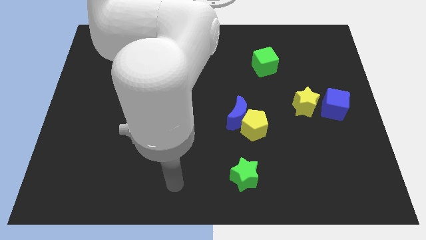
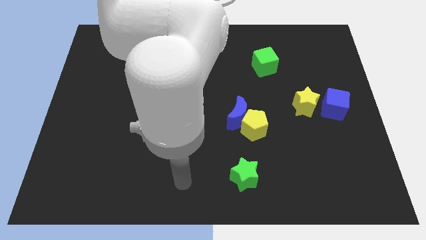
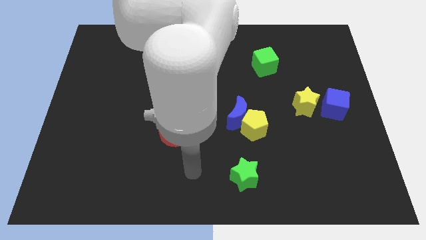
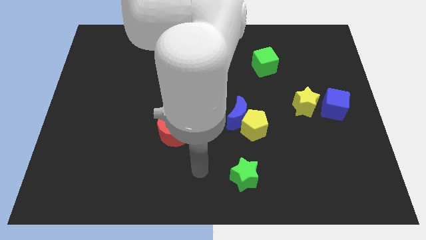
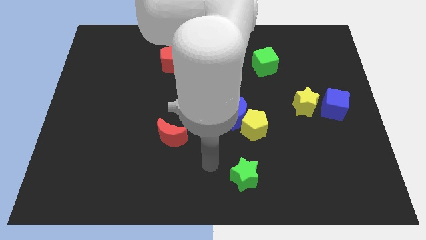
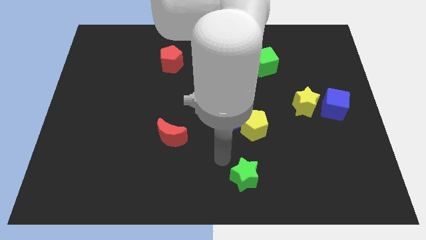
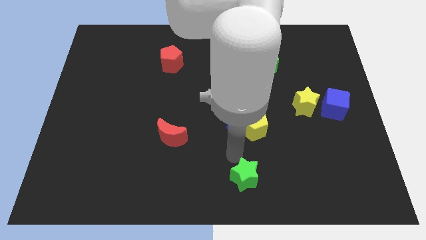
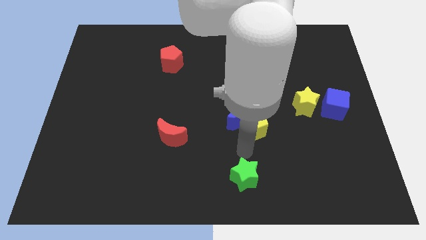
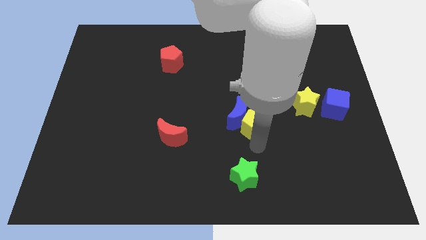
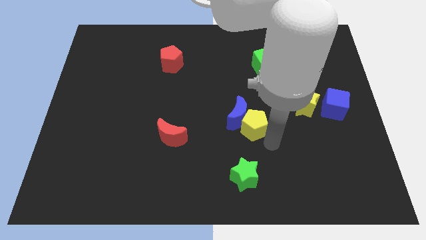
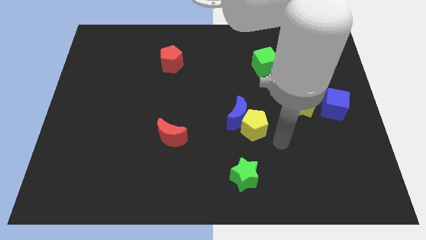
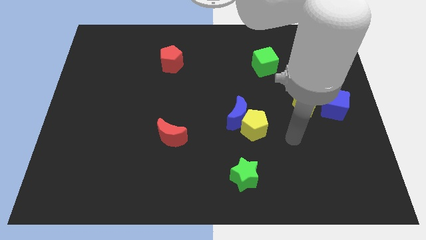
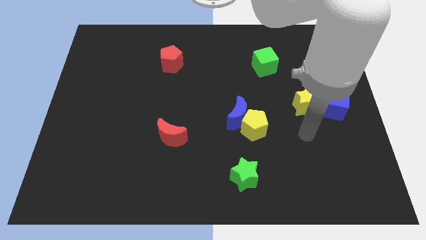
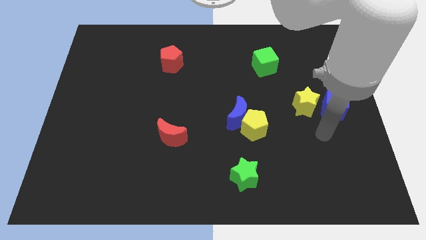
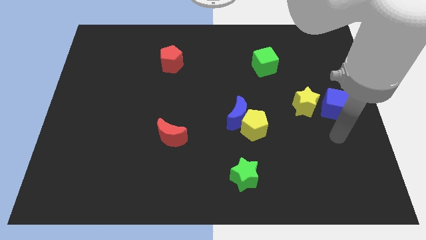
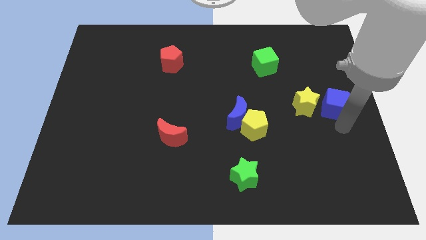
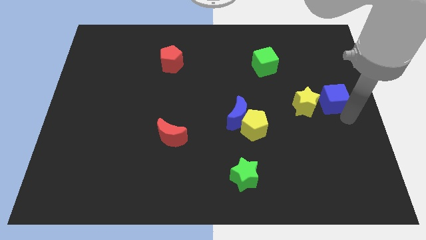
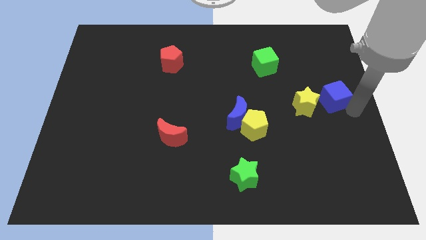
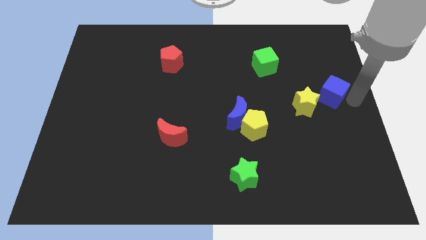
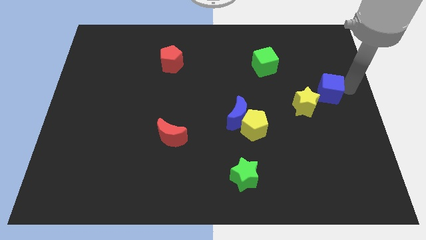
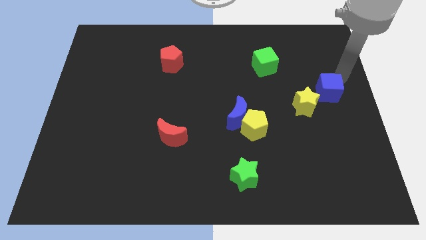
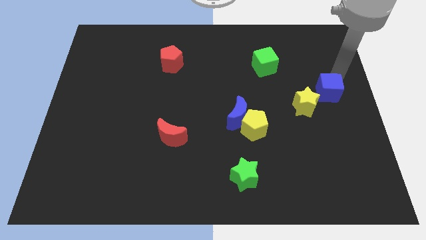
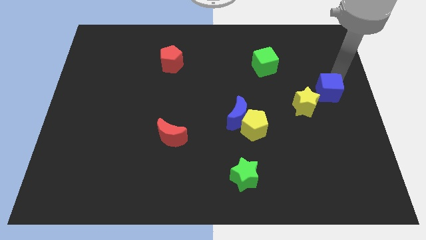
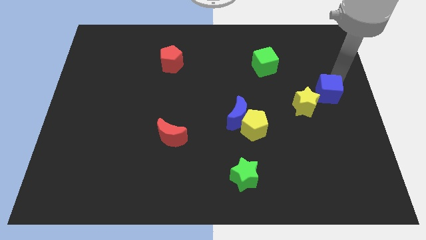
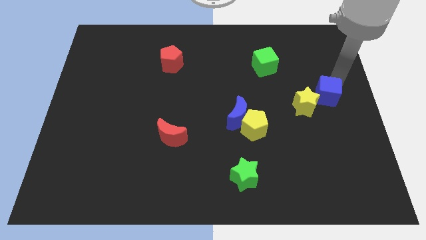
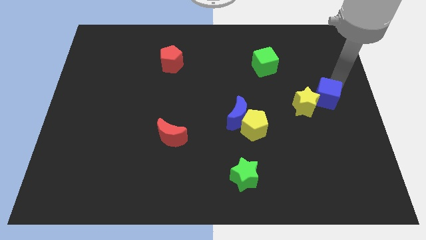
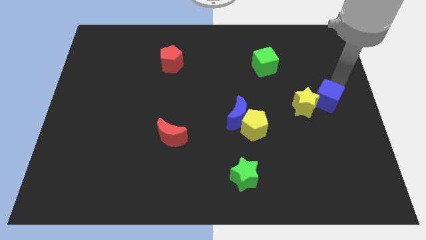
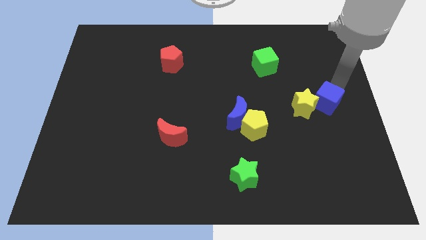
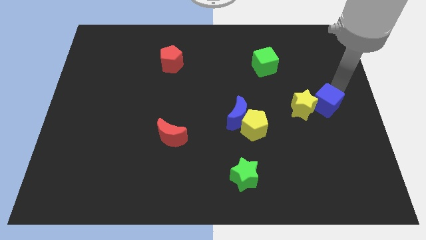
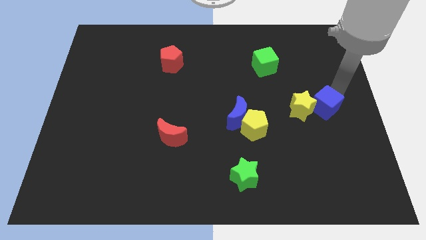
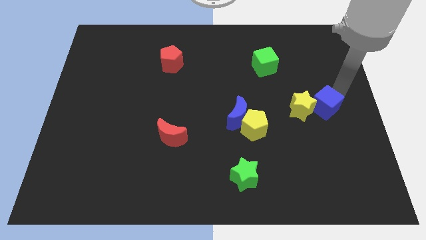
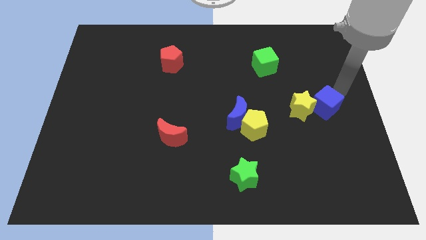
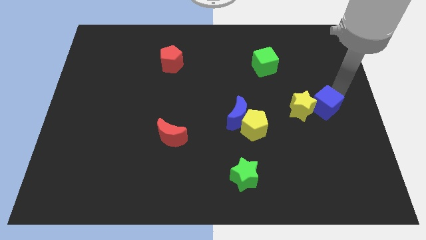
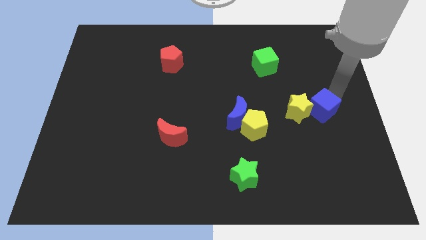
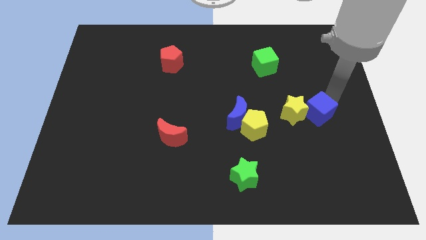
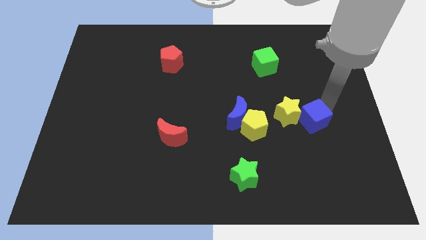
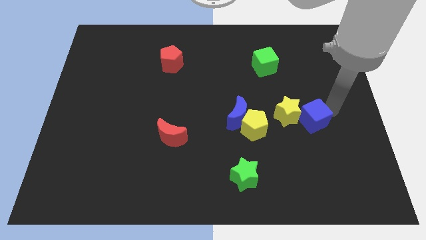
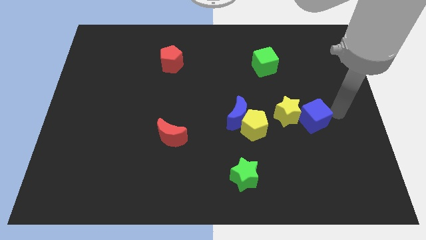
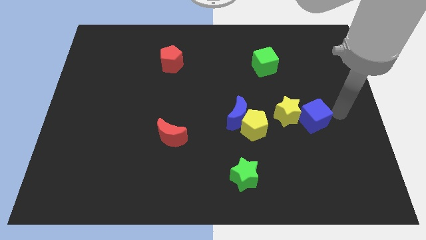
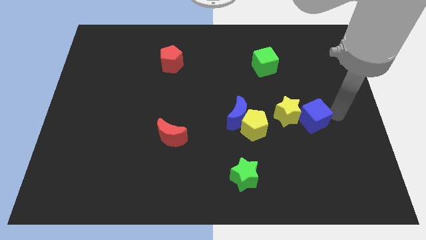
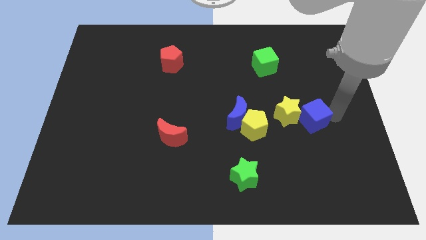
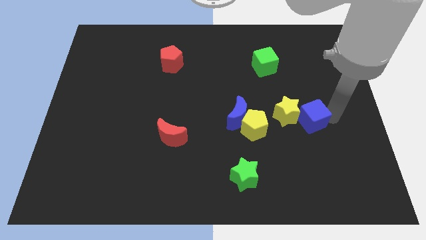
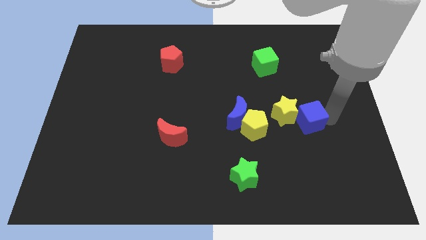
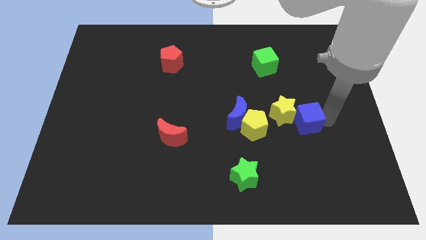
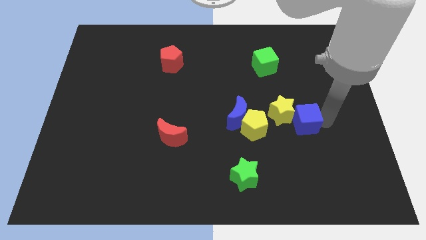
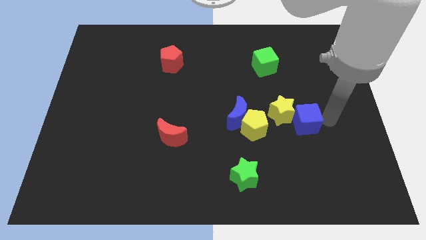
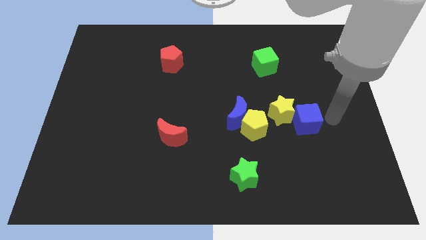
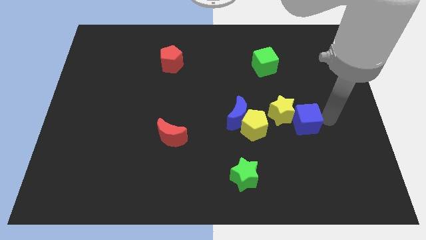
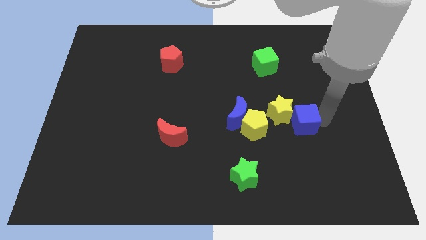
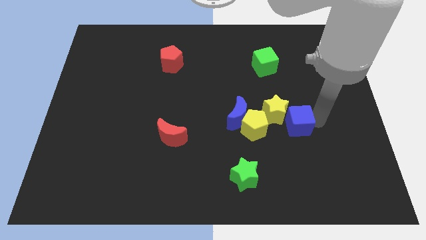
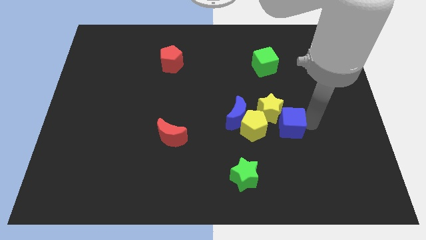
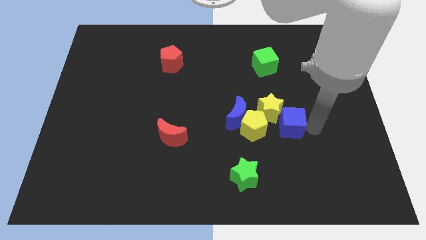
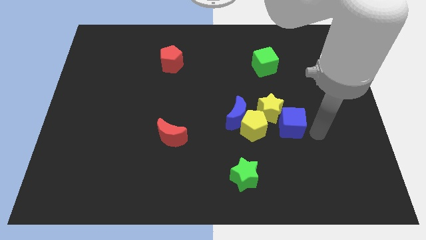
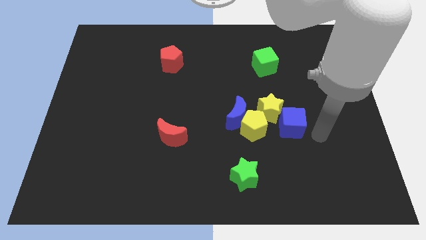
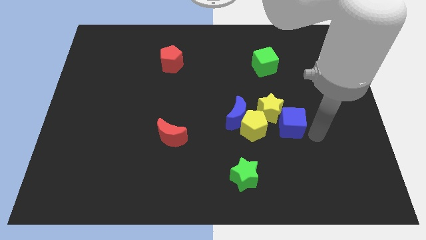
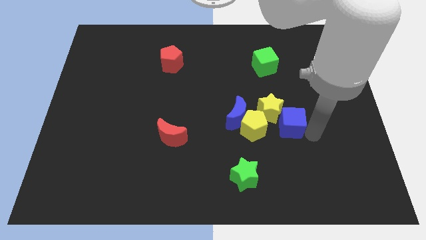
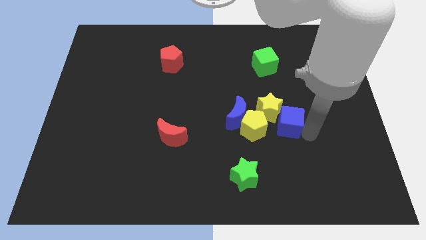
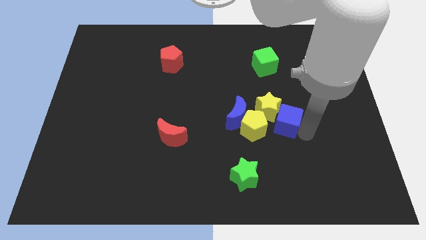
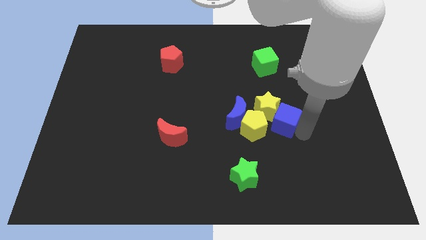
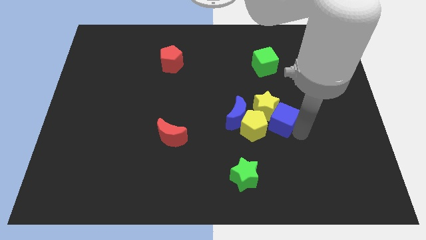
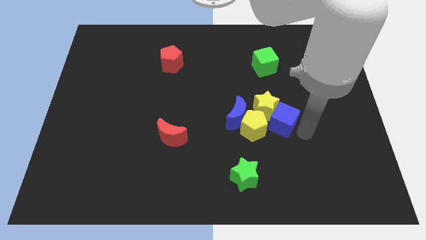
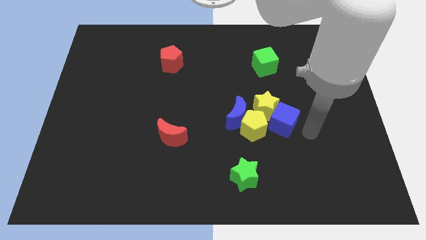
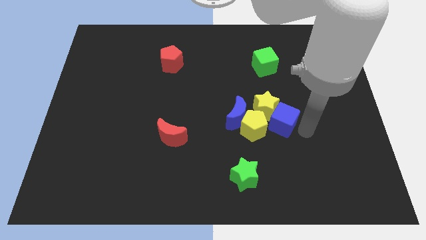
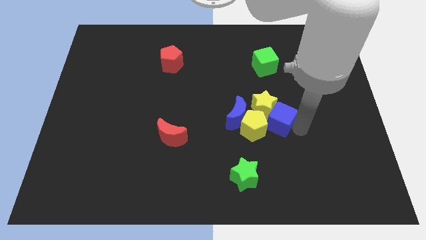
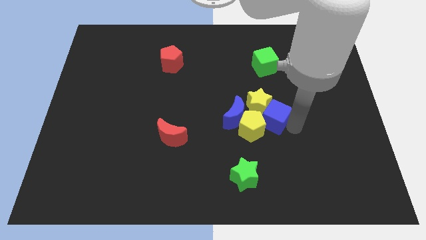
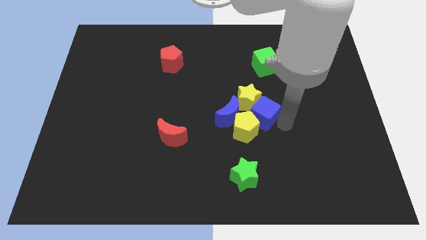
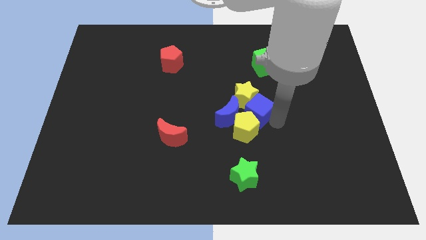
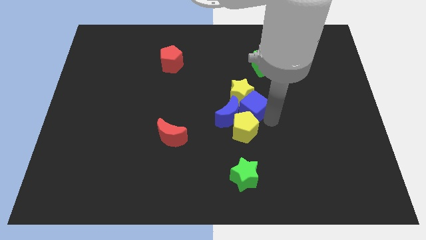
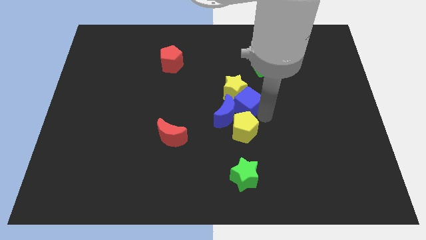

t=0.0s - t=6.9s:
slide the blue cube to the left

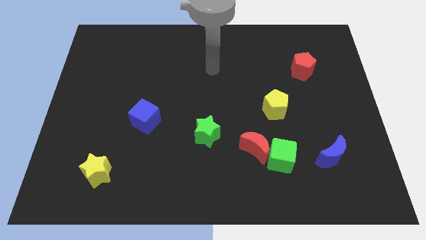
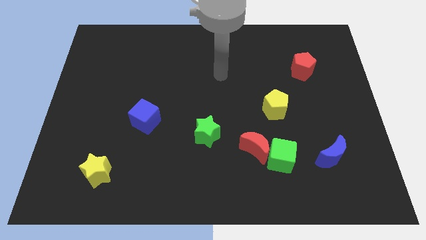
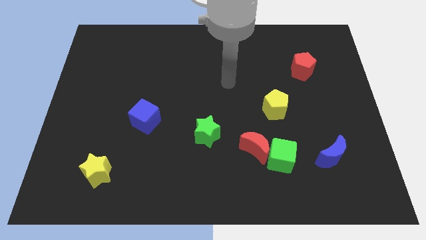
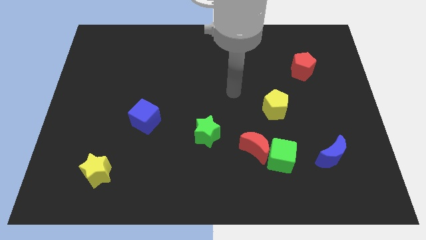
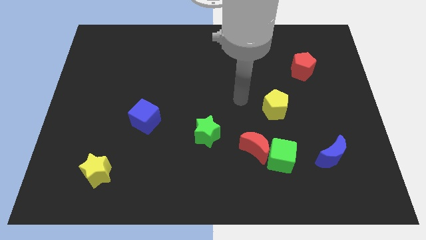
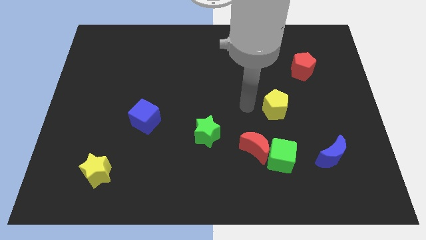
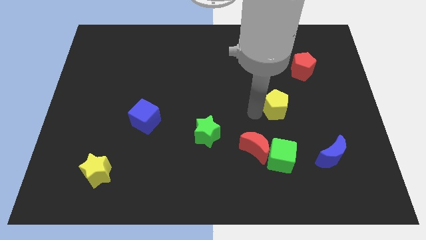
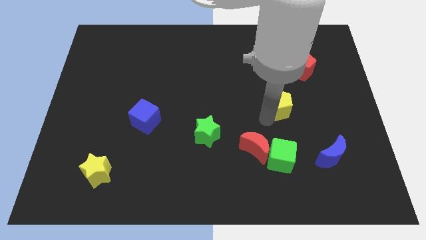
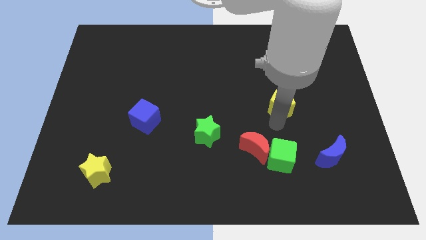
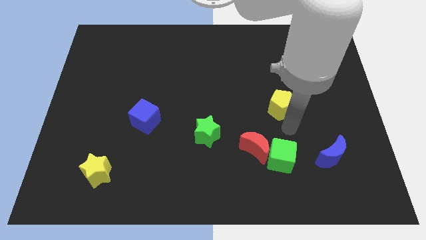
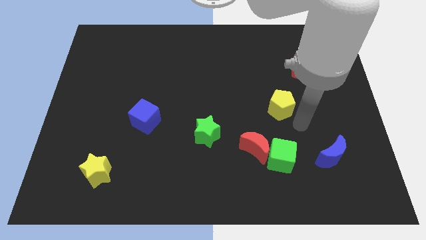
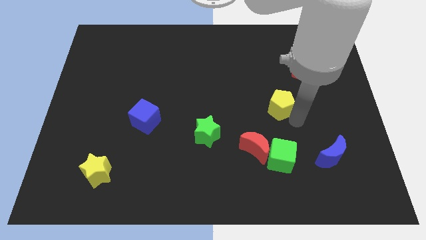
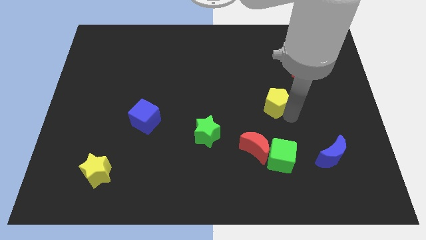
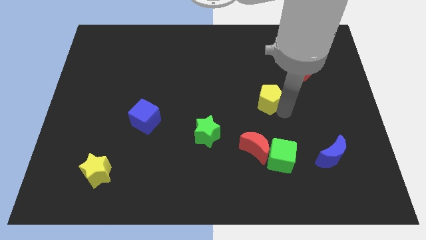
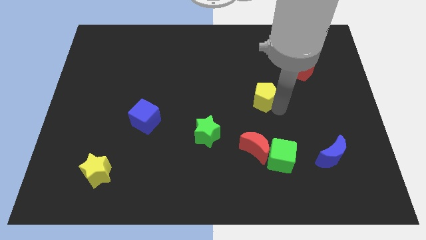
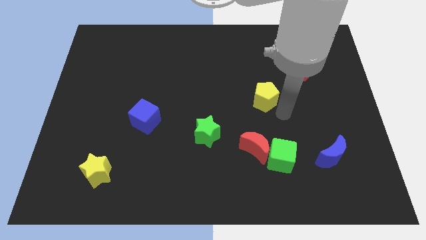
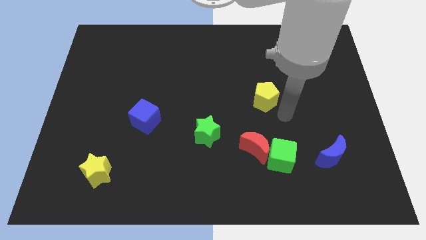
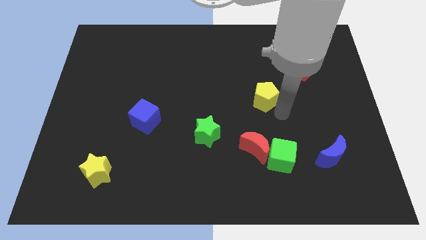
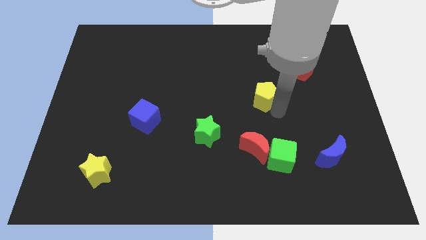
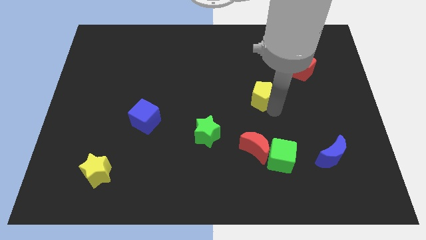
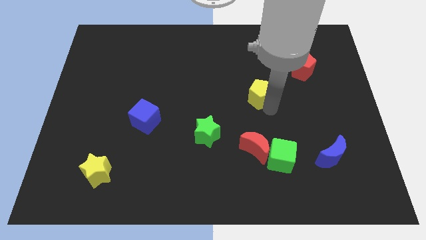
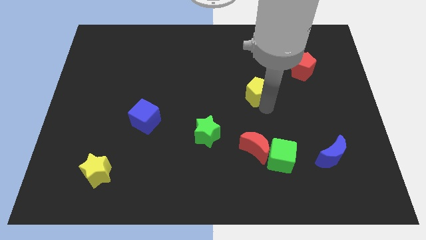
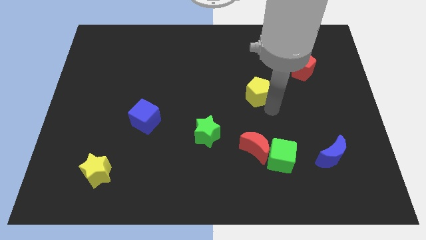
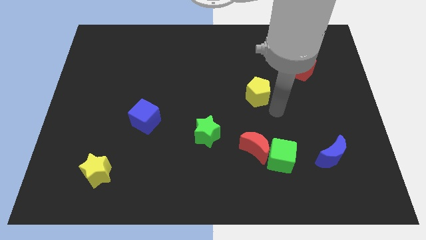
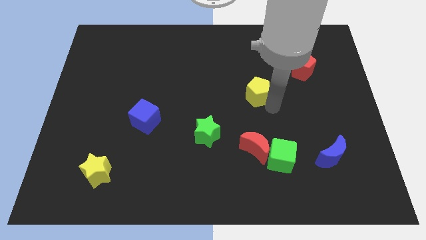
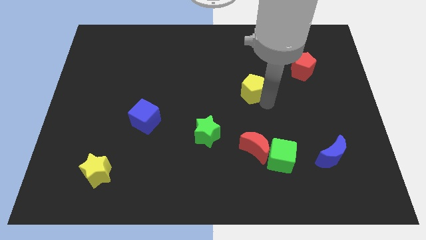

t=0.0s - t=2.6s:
move the yellow pentagon a bit diagonally upwards and left
